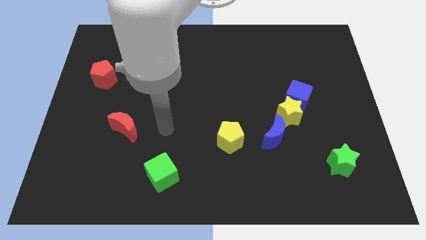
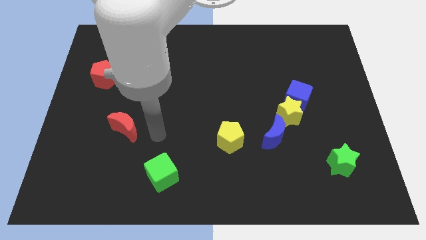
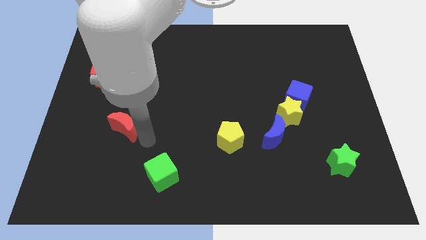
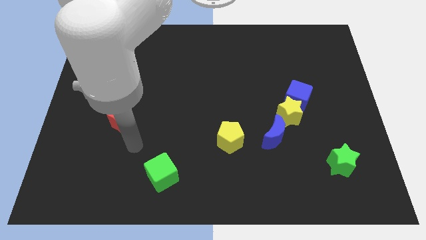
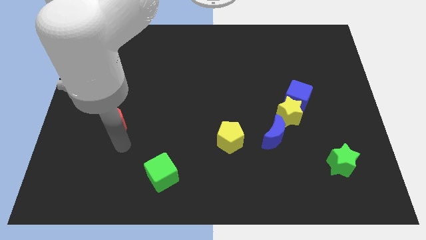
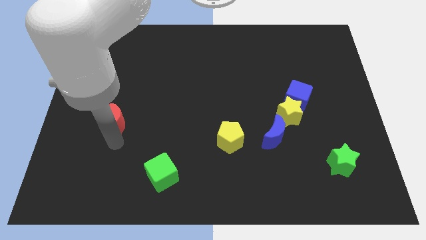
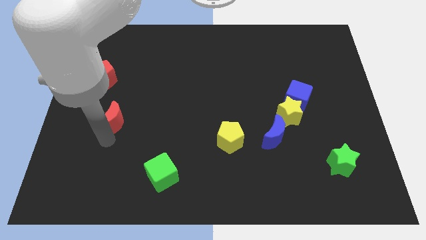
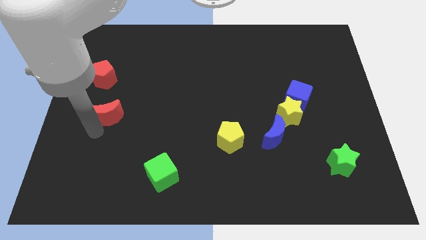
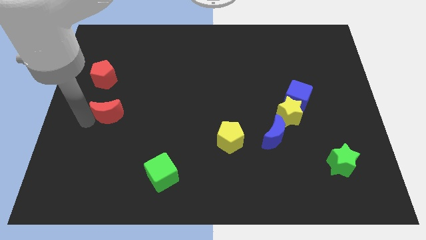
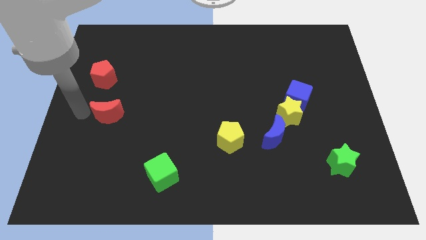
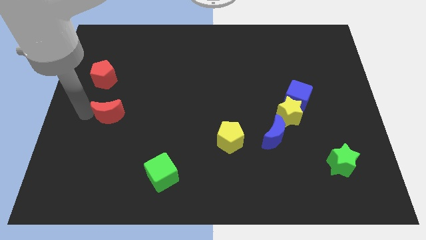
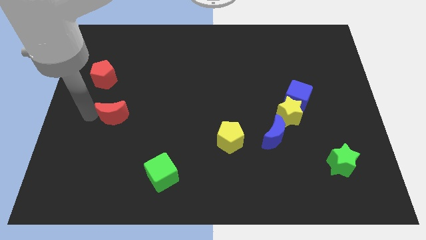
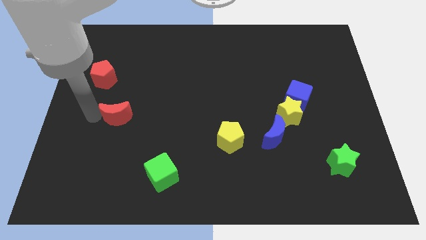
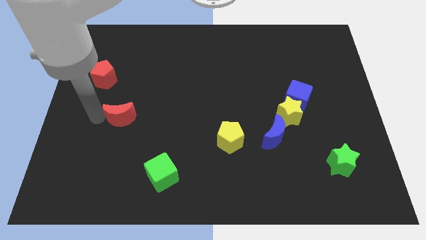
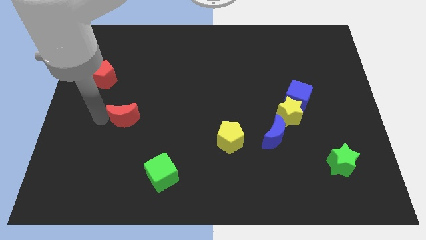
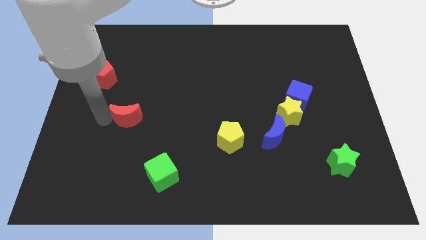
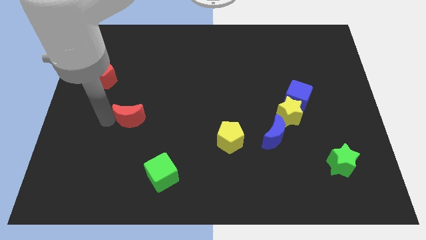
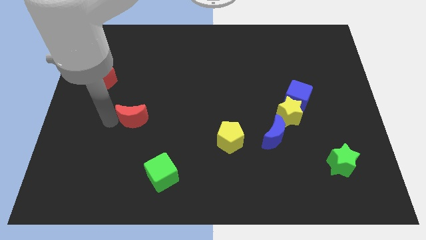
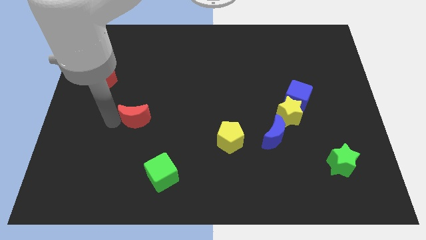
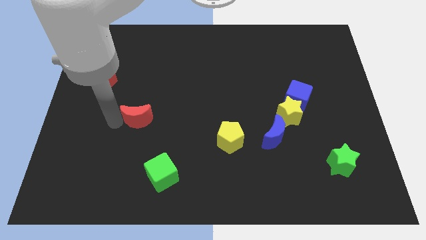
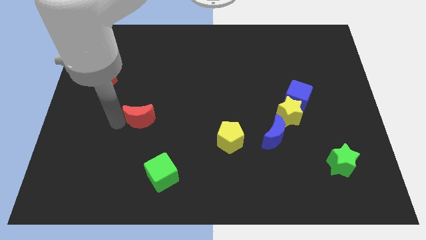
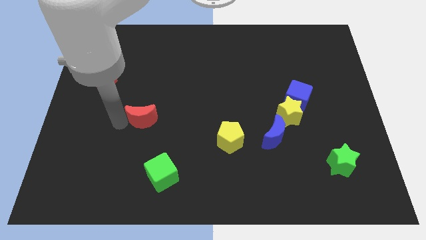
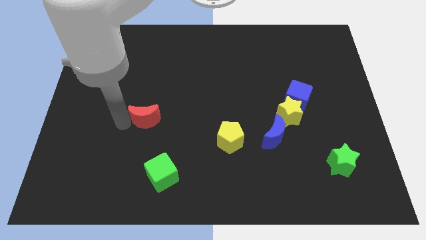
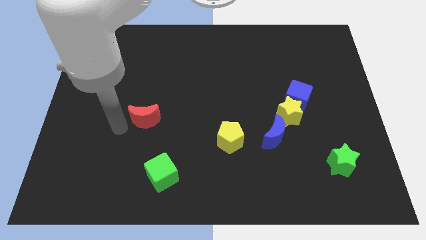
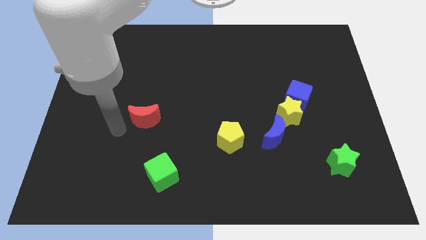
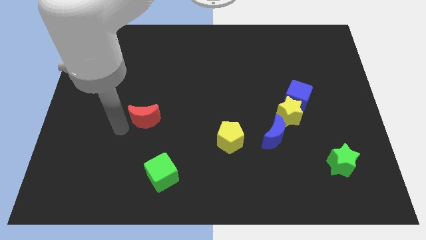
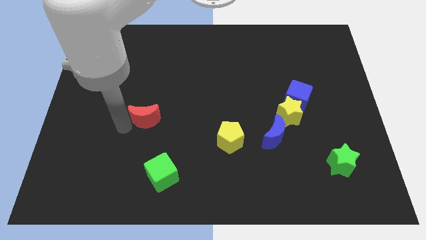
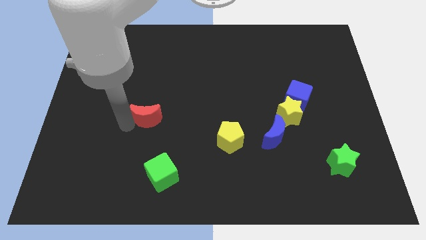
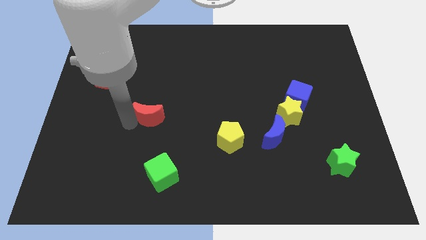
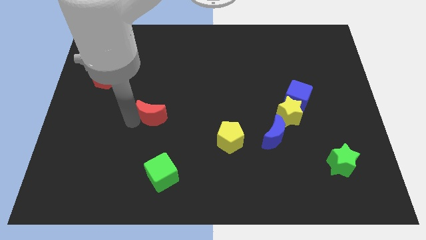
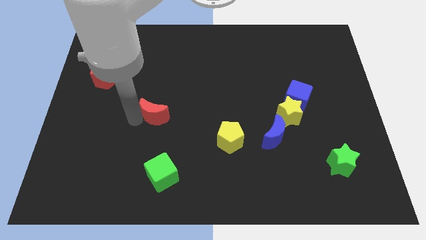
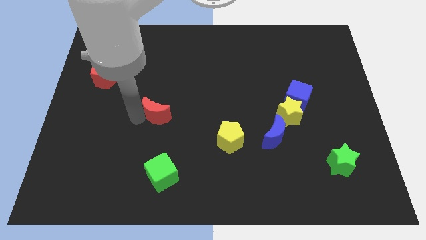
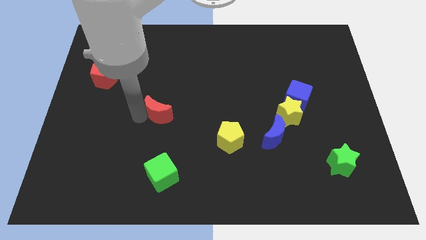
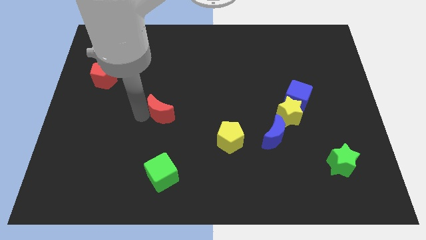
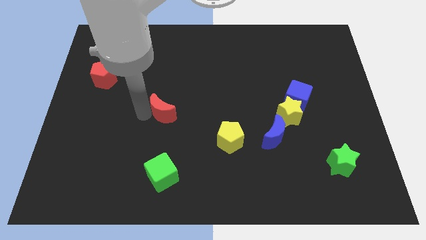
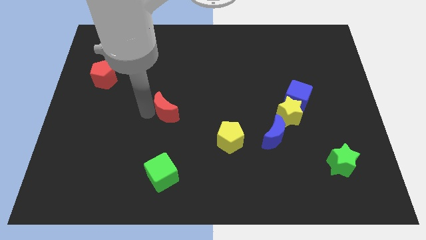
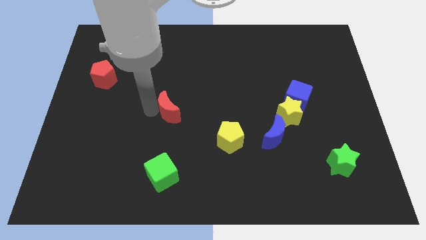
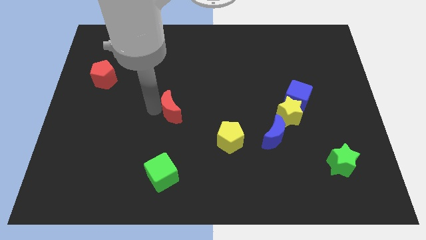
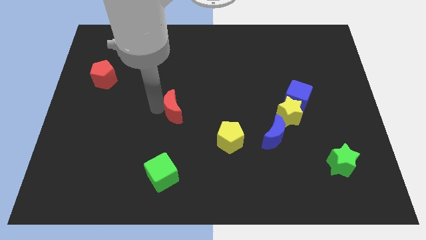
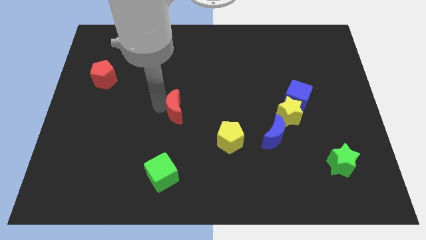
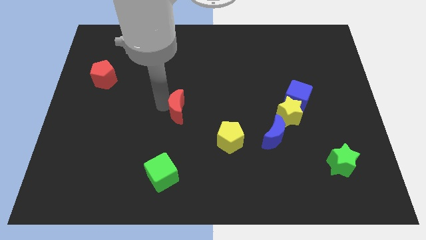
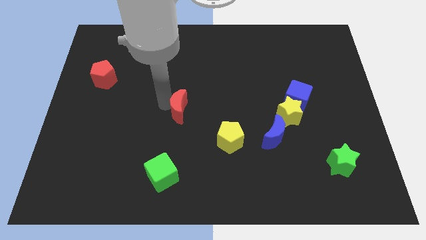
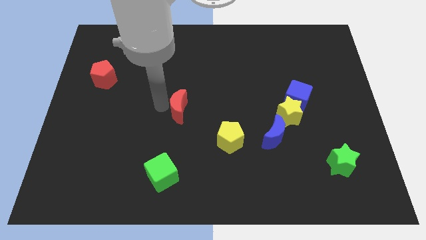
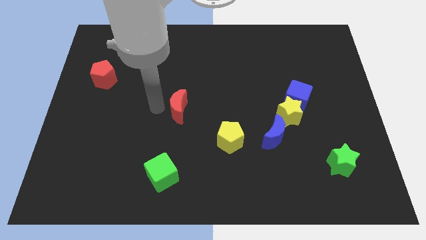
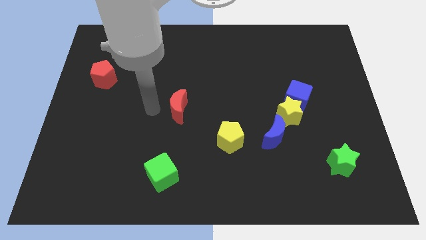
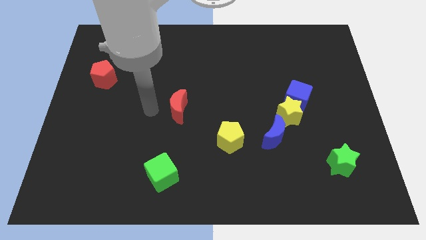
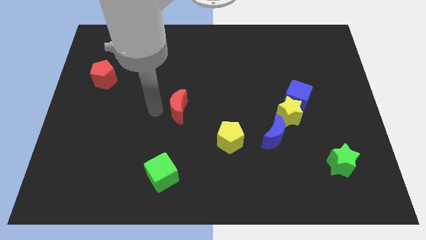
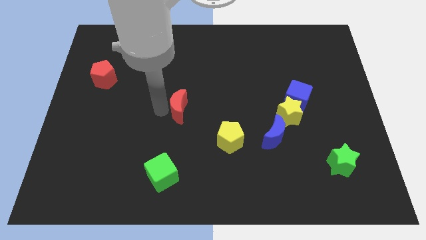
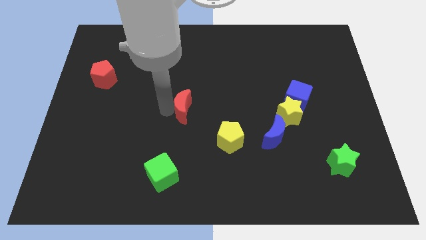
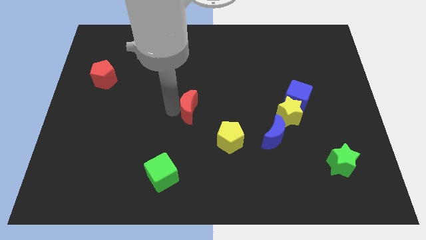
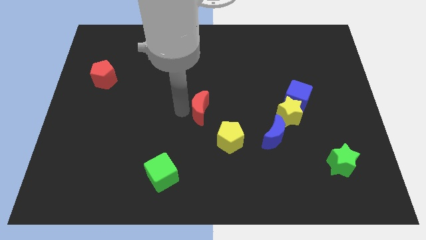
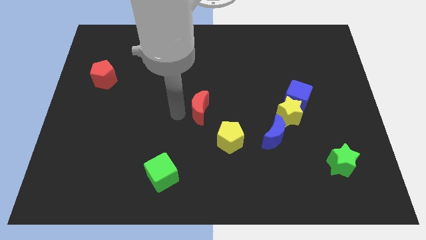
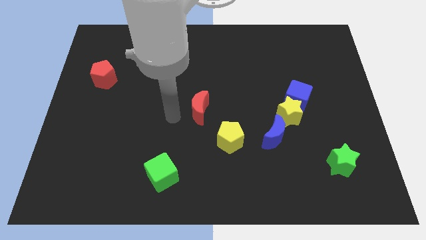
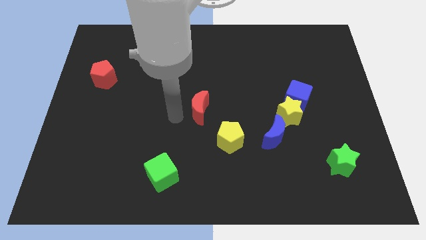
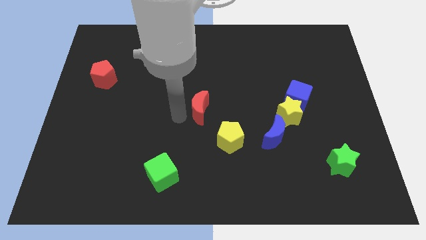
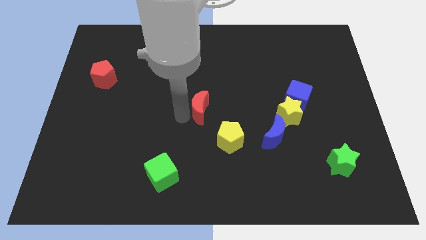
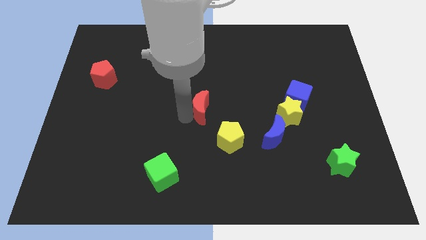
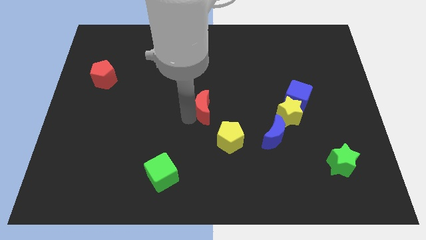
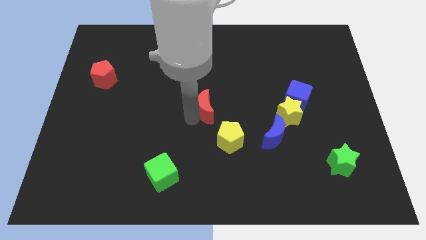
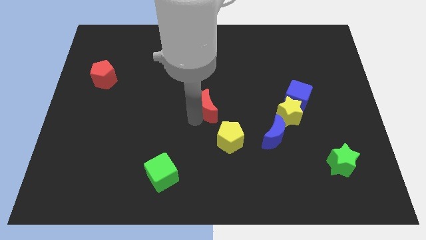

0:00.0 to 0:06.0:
put the red moon to the top side of the yellow pentagon
